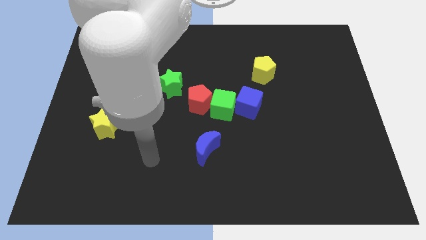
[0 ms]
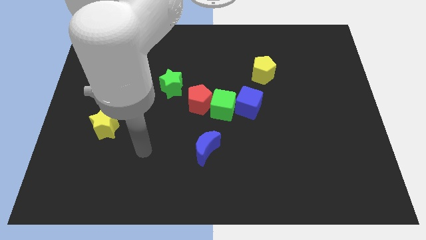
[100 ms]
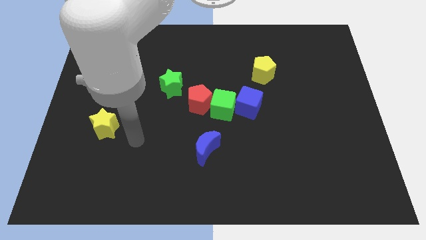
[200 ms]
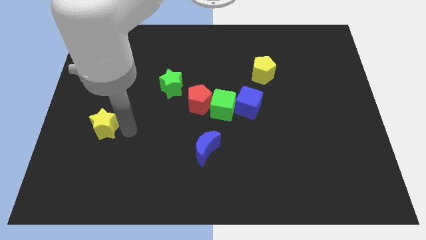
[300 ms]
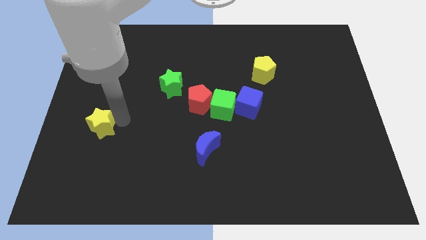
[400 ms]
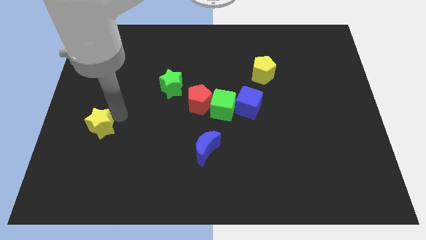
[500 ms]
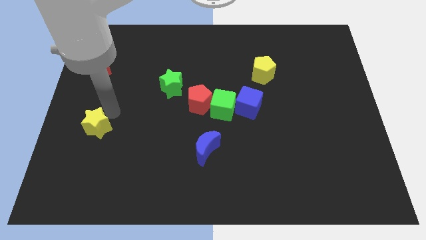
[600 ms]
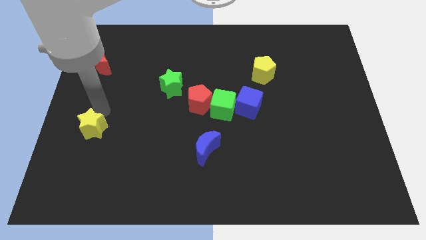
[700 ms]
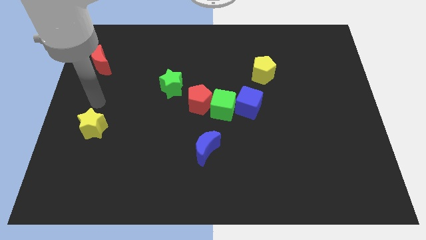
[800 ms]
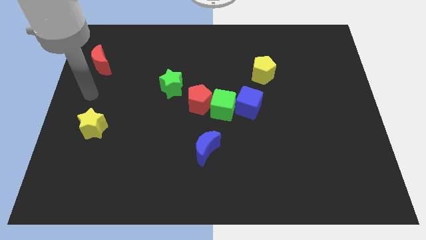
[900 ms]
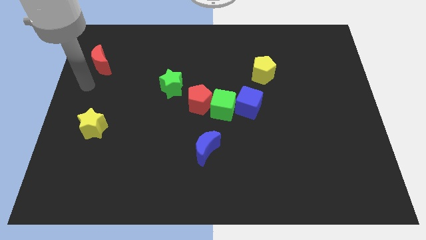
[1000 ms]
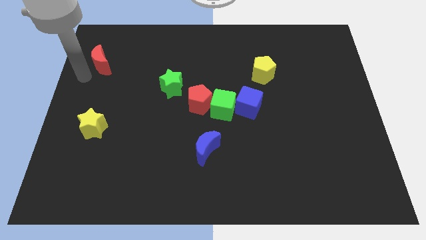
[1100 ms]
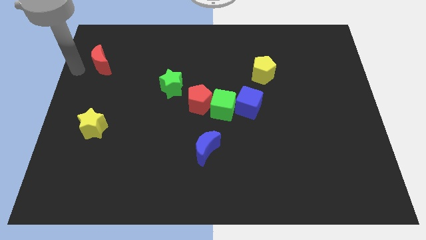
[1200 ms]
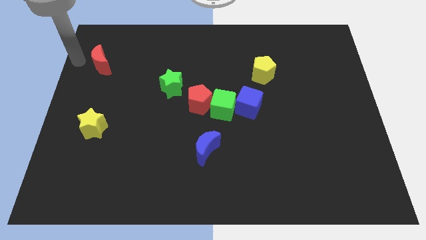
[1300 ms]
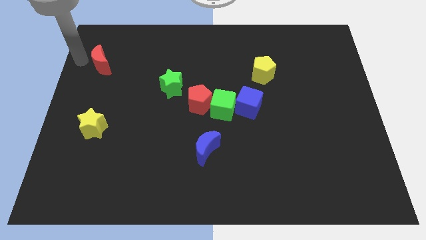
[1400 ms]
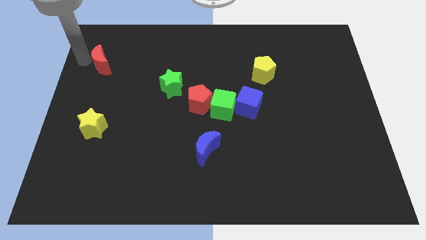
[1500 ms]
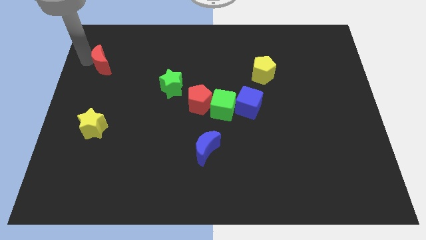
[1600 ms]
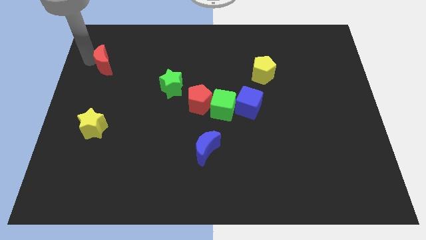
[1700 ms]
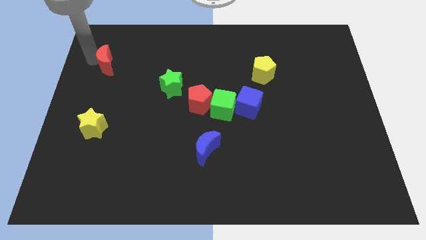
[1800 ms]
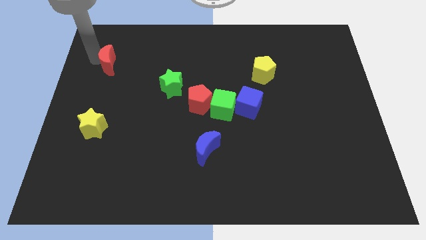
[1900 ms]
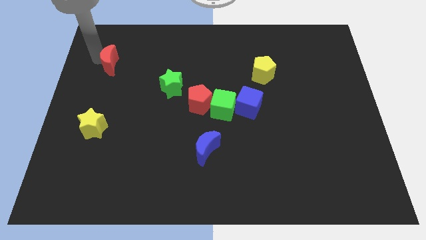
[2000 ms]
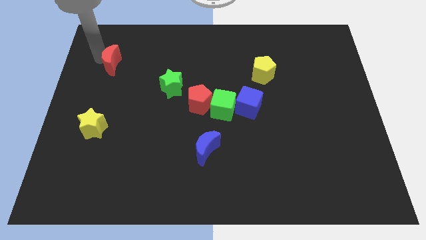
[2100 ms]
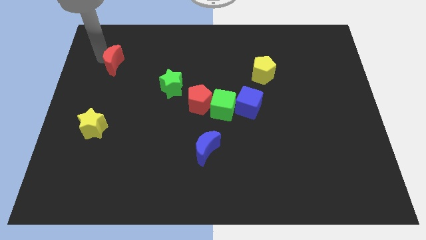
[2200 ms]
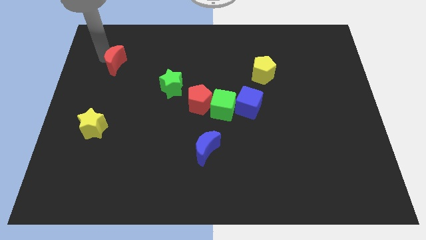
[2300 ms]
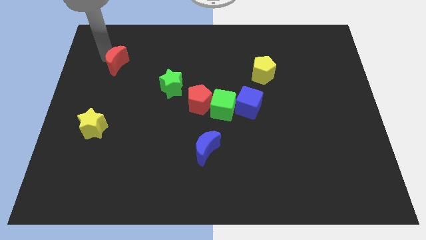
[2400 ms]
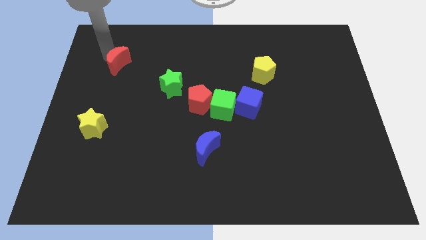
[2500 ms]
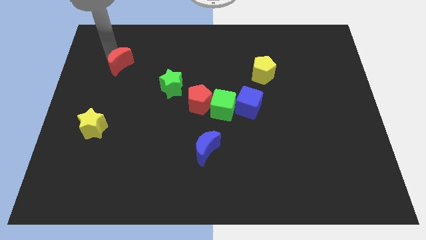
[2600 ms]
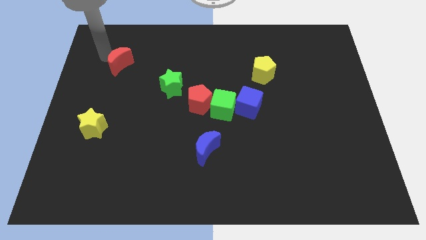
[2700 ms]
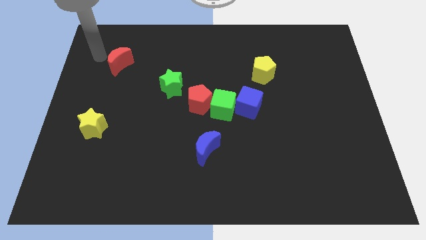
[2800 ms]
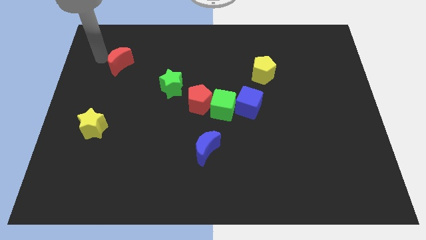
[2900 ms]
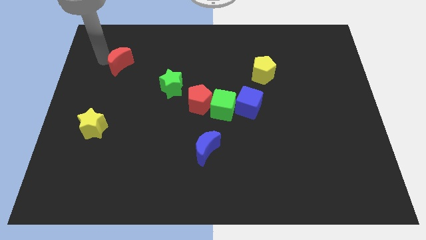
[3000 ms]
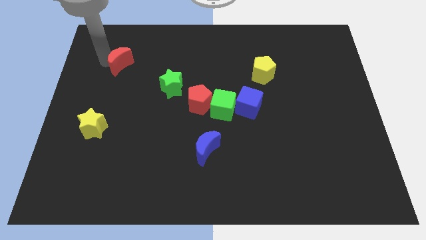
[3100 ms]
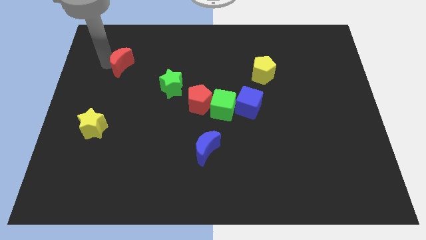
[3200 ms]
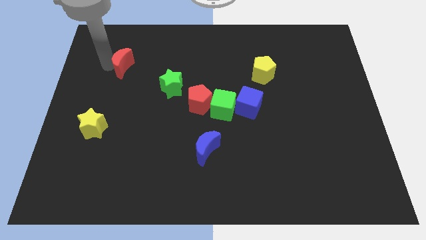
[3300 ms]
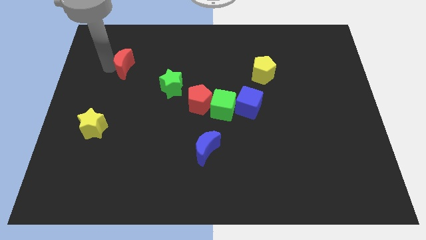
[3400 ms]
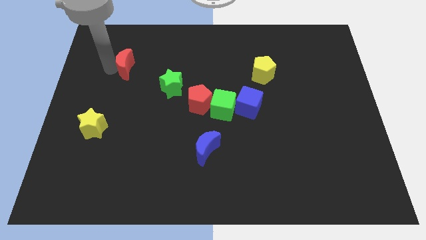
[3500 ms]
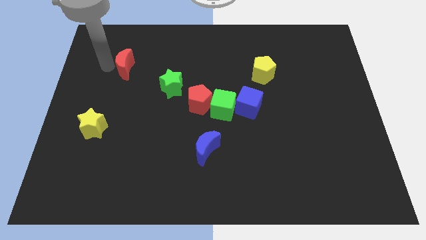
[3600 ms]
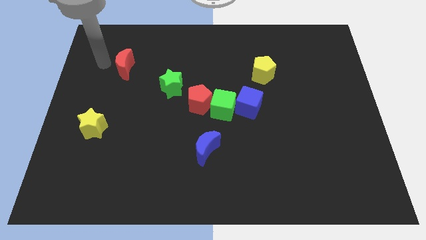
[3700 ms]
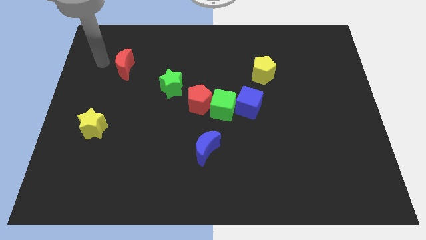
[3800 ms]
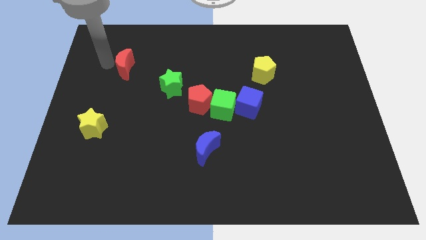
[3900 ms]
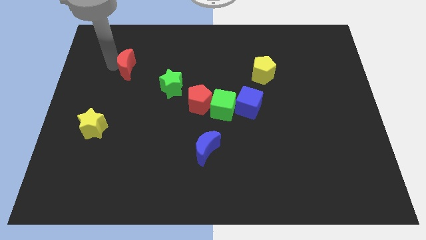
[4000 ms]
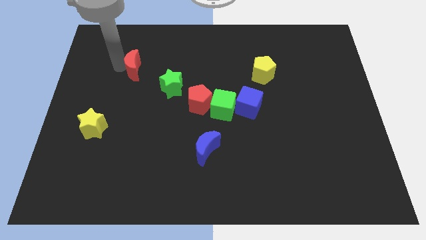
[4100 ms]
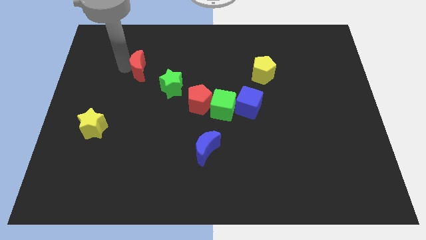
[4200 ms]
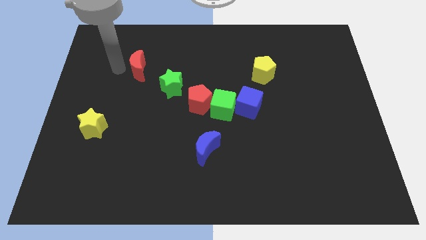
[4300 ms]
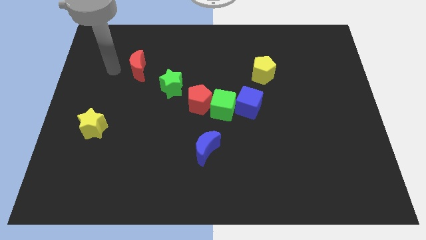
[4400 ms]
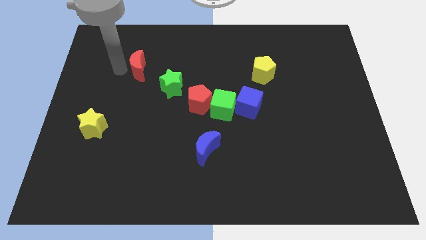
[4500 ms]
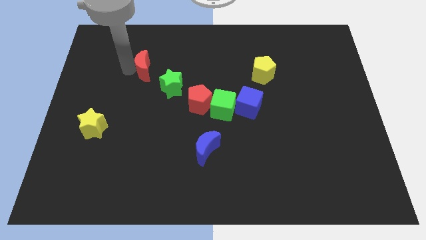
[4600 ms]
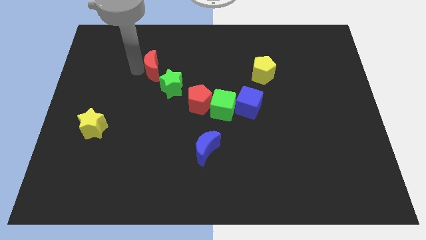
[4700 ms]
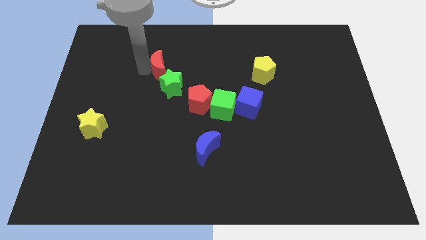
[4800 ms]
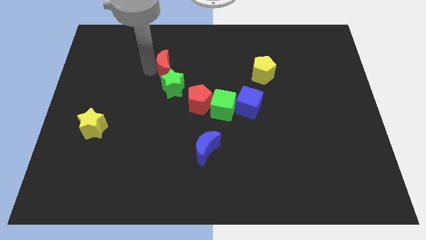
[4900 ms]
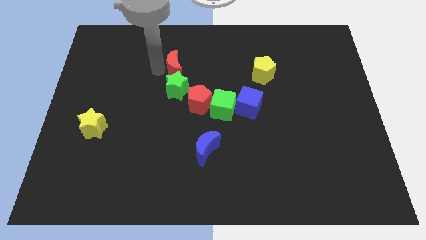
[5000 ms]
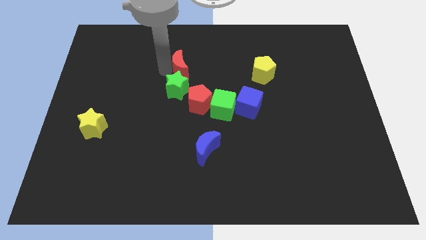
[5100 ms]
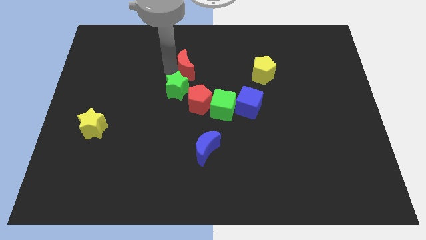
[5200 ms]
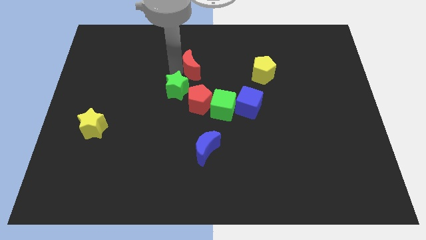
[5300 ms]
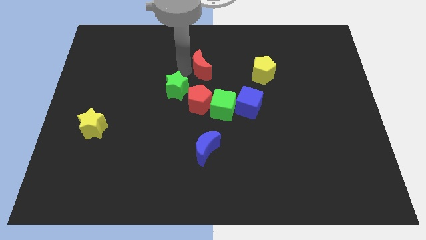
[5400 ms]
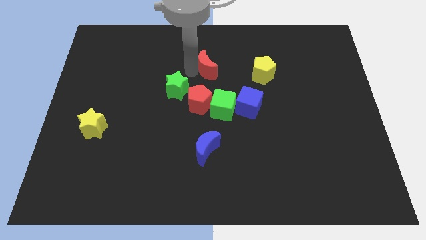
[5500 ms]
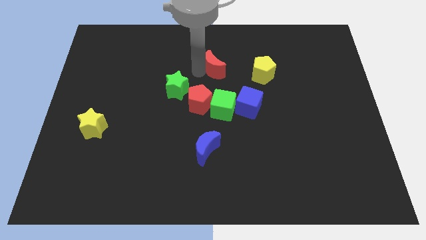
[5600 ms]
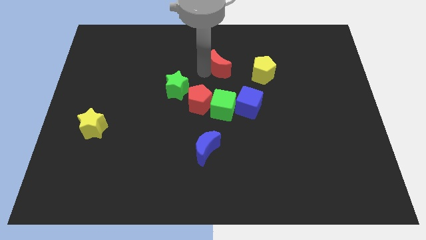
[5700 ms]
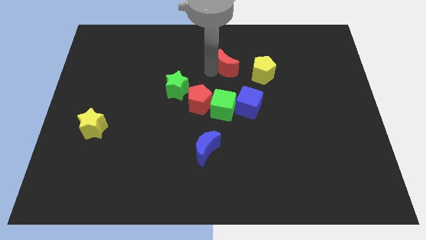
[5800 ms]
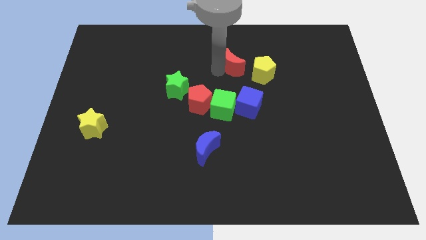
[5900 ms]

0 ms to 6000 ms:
slide the red moon diagonally up and to the left of the yellow pentagon

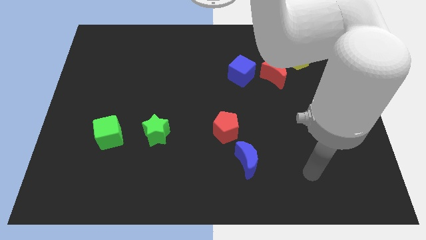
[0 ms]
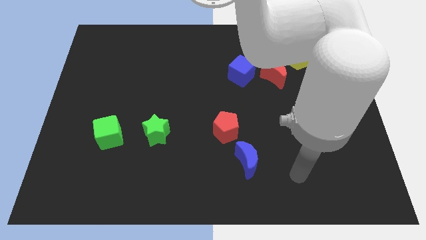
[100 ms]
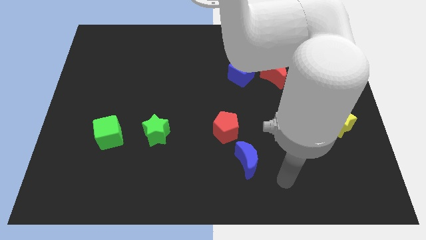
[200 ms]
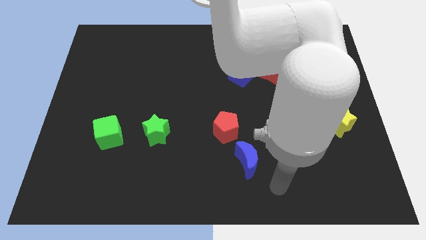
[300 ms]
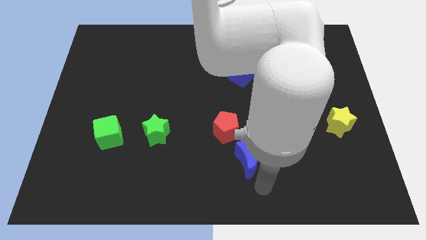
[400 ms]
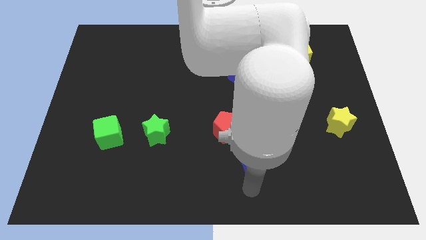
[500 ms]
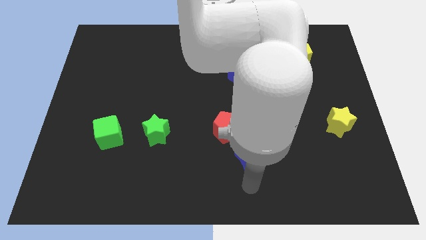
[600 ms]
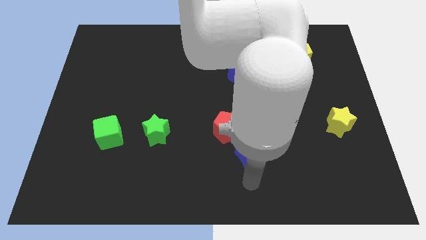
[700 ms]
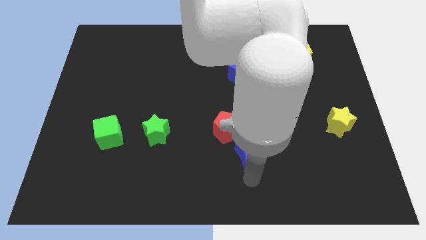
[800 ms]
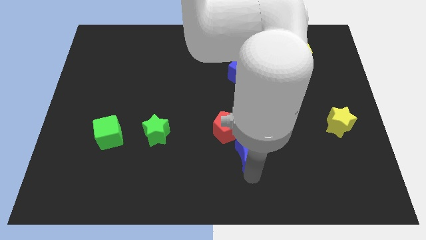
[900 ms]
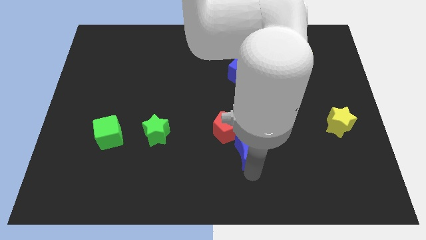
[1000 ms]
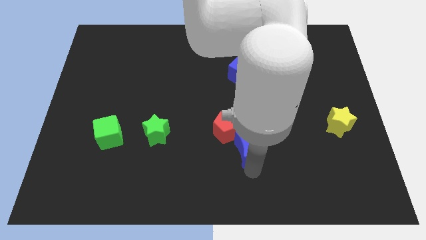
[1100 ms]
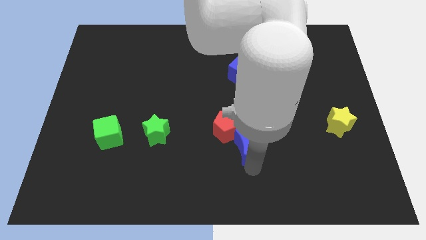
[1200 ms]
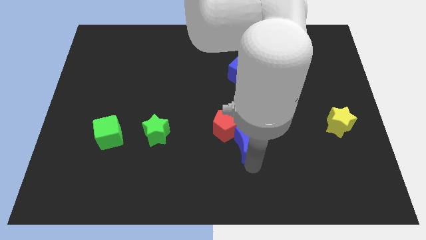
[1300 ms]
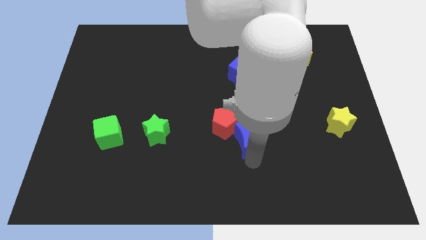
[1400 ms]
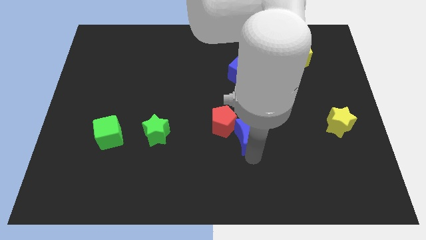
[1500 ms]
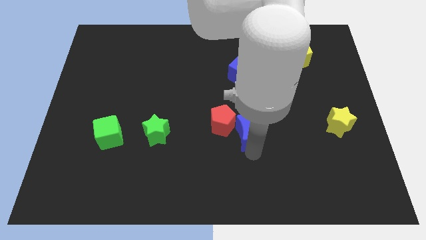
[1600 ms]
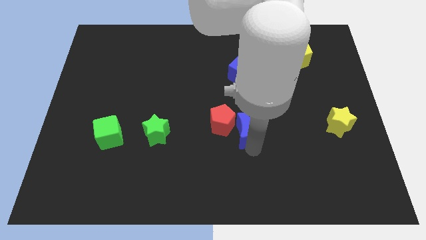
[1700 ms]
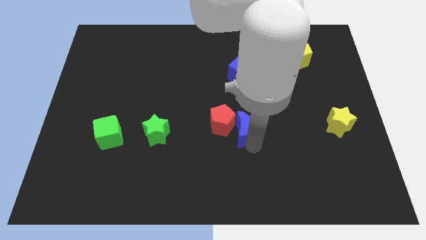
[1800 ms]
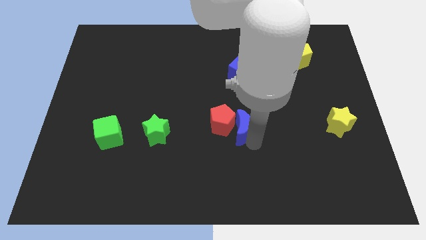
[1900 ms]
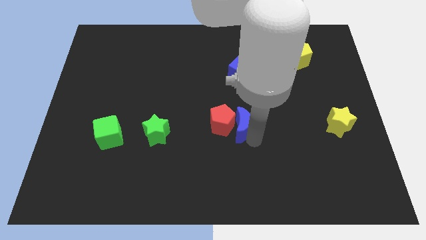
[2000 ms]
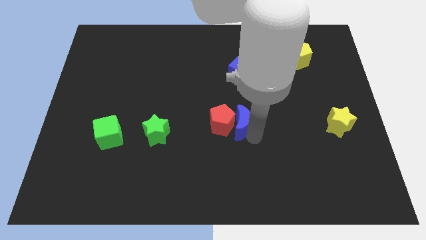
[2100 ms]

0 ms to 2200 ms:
push the blue moon to the bottom of the blue cube
